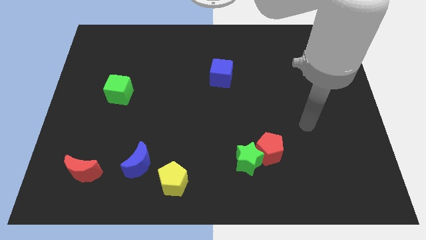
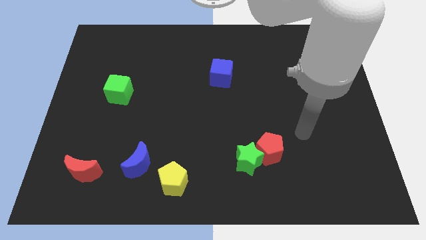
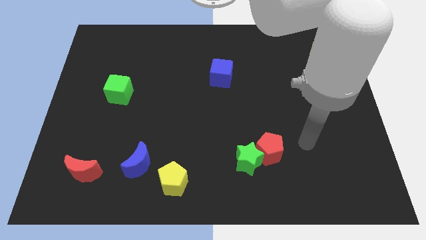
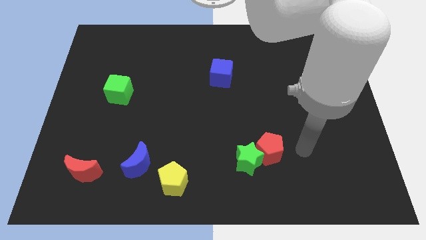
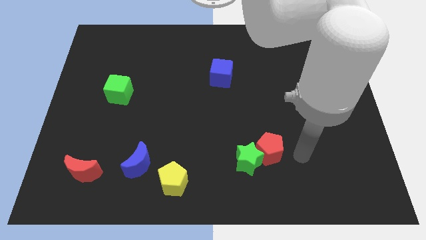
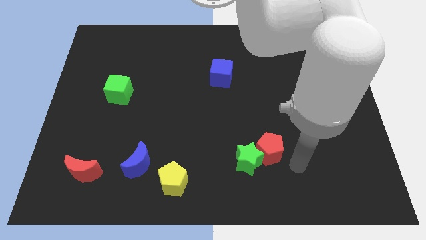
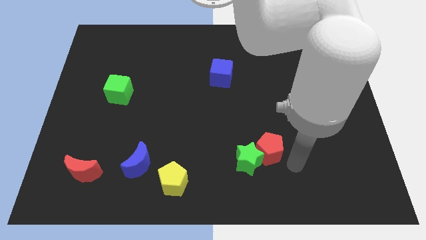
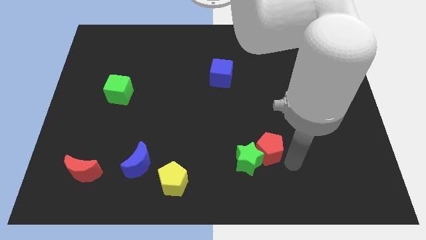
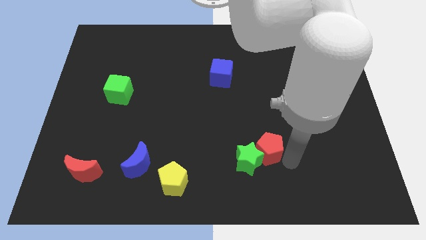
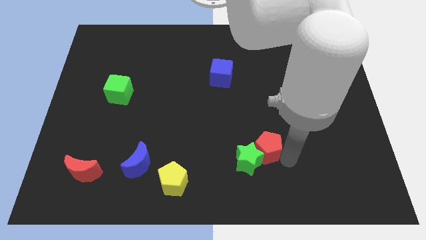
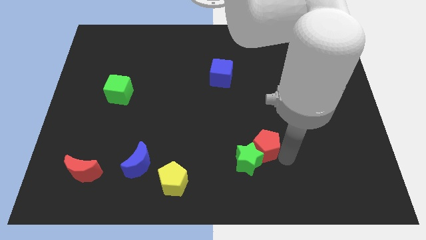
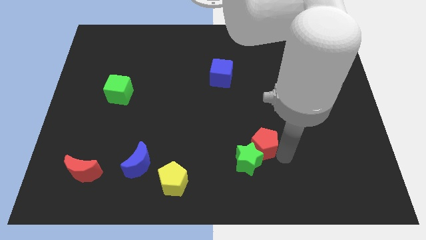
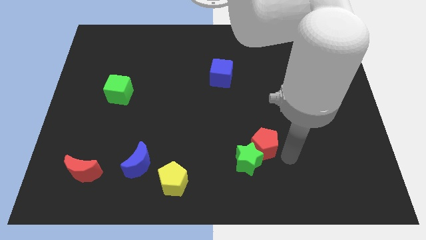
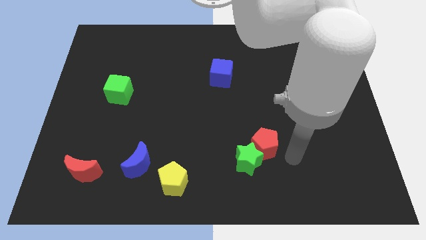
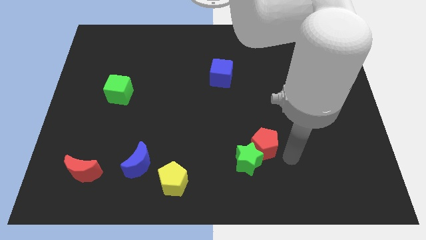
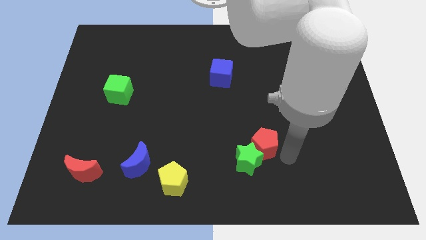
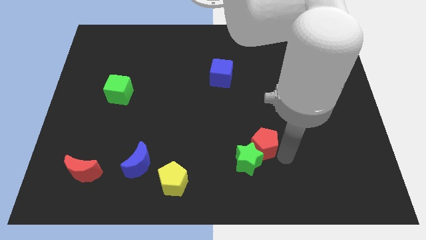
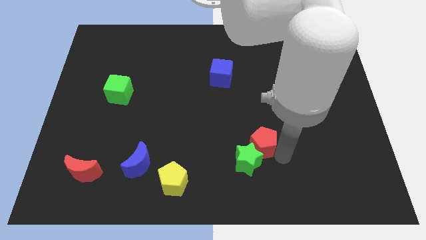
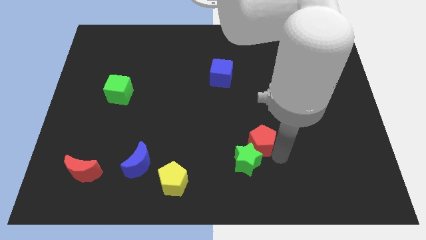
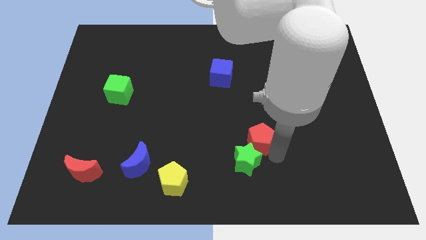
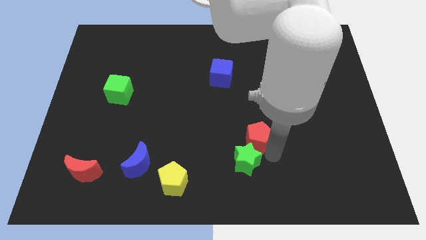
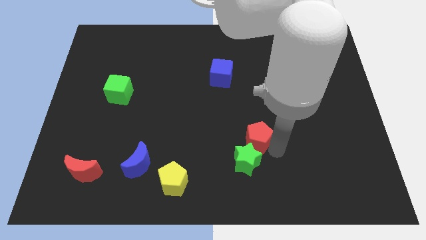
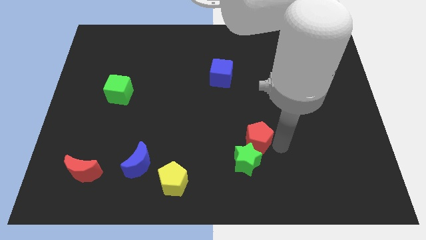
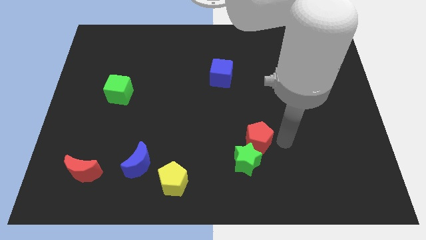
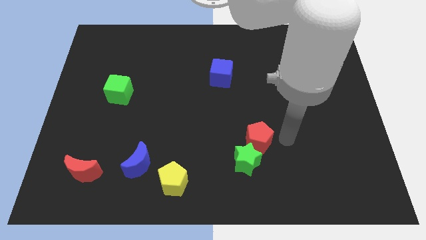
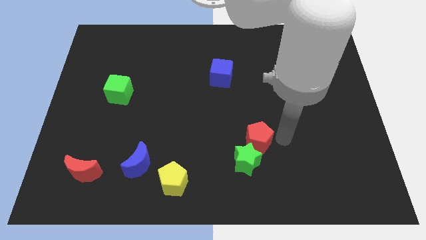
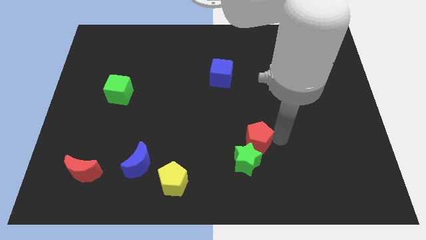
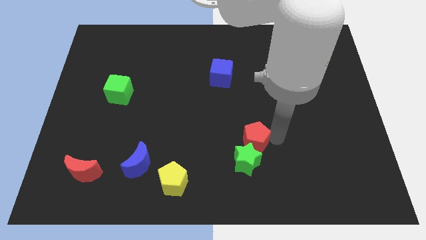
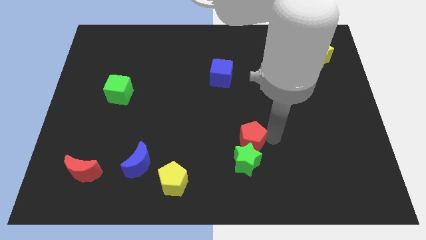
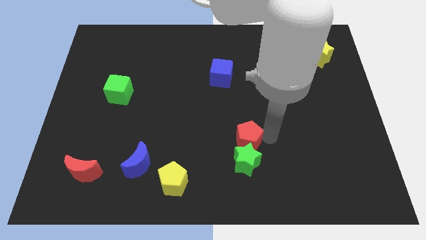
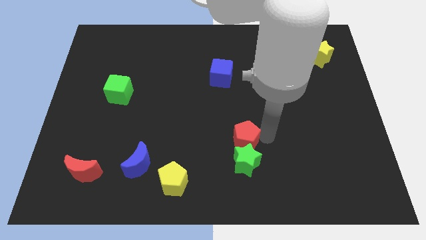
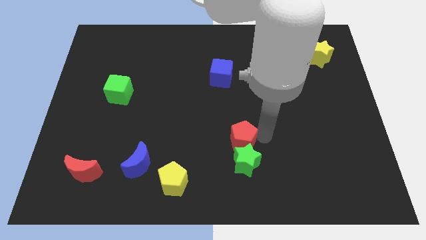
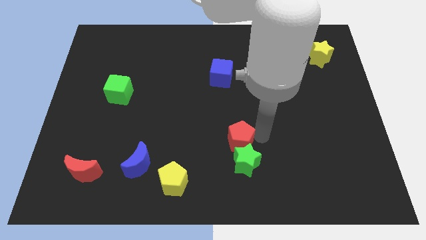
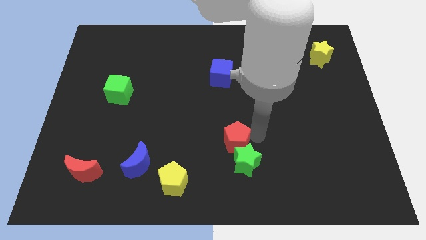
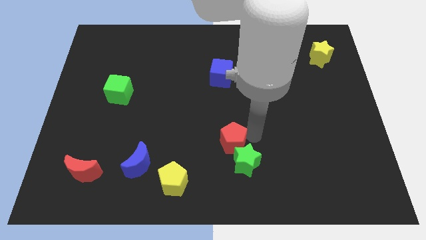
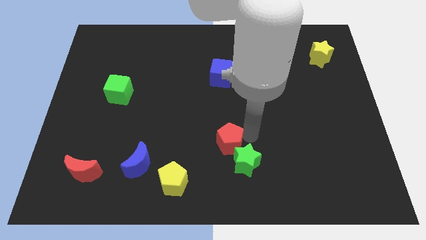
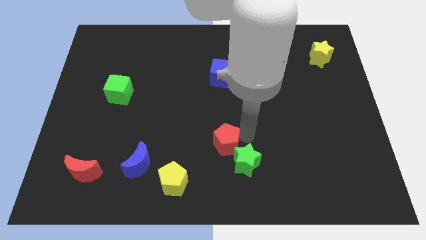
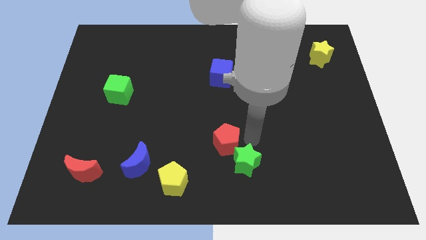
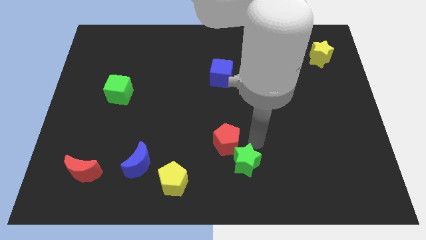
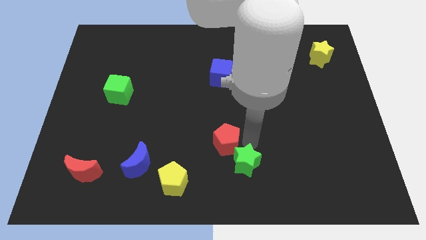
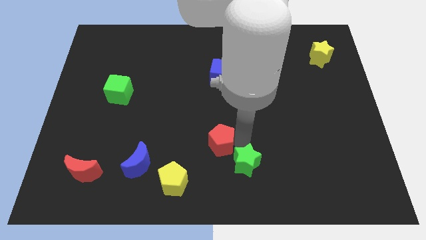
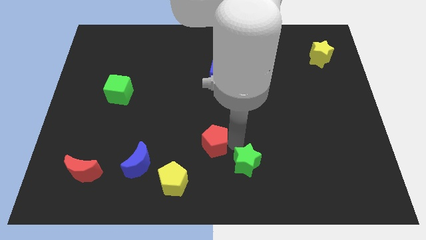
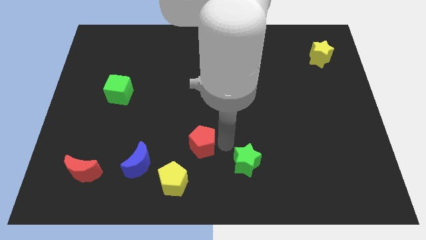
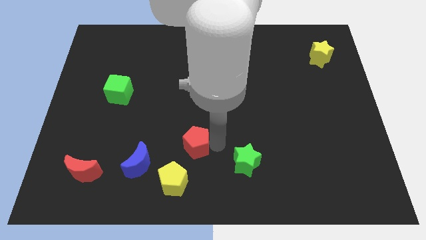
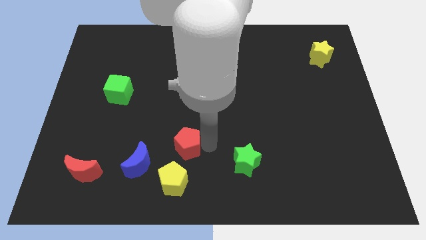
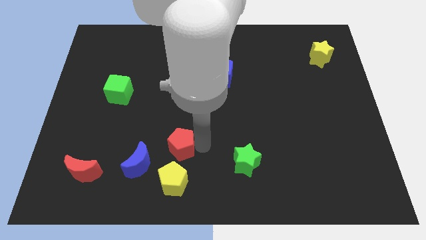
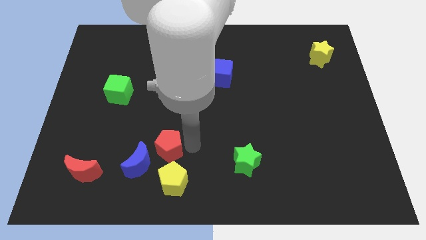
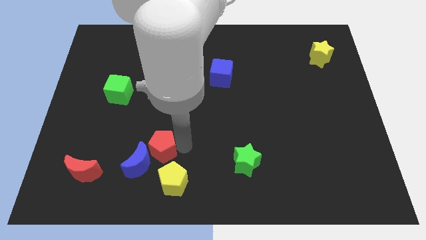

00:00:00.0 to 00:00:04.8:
move the red pentagon towards the blue moon

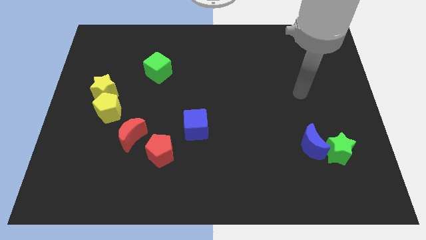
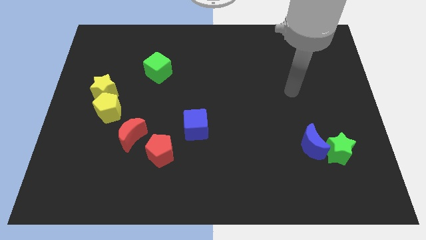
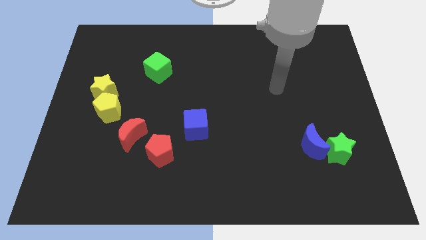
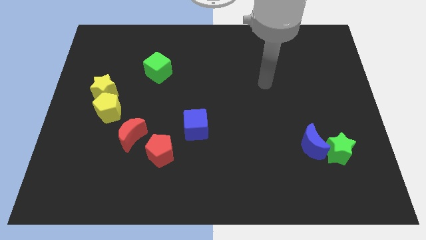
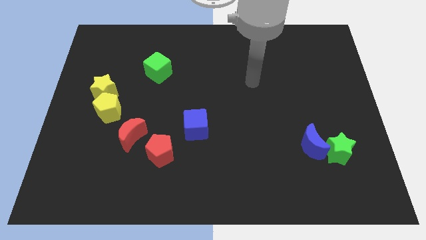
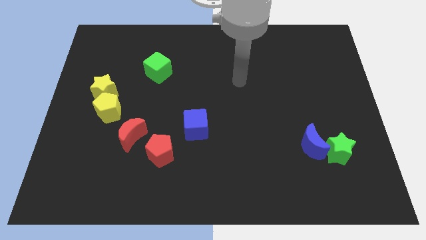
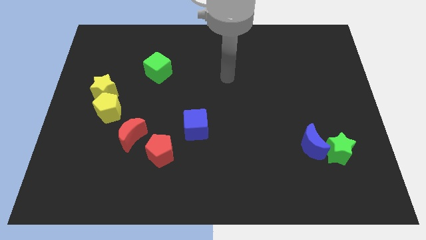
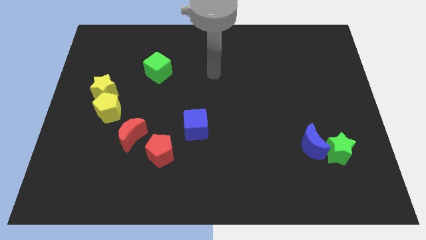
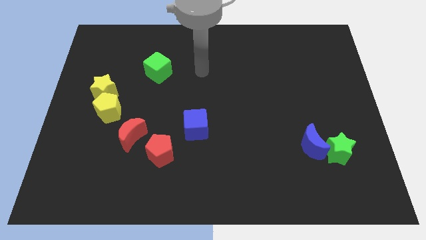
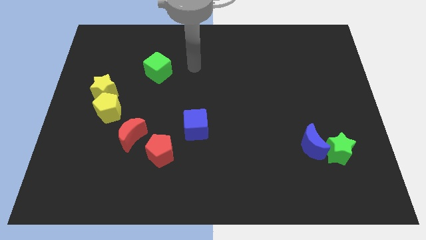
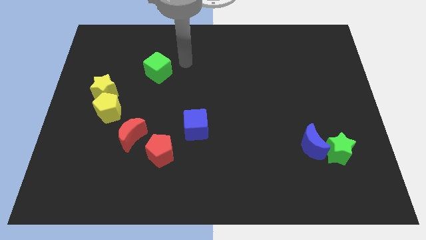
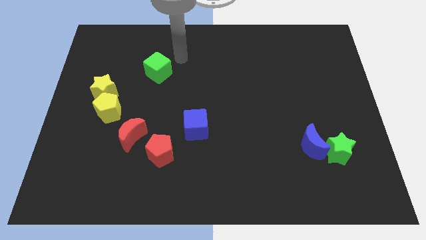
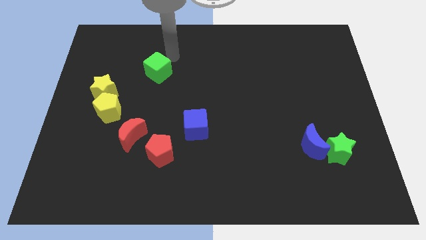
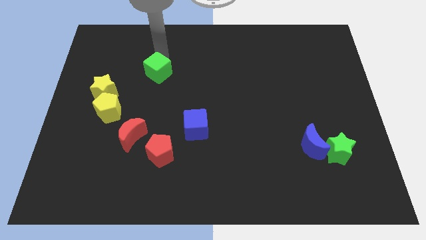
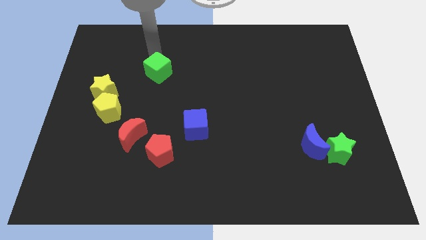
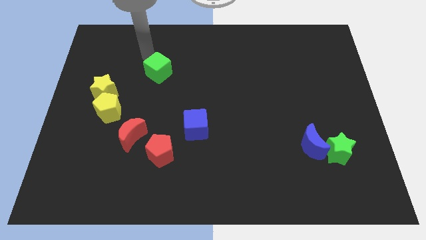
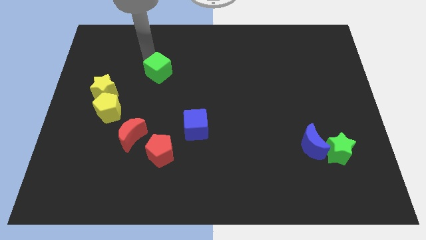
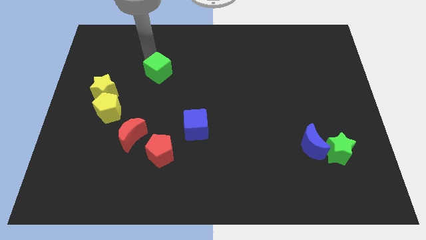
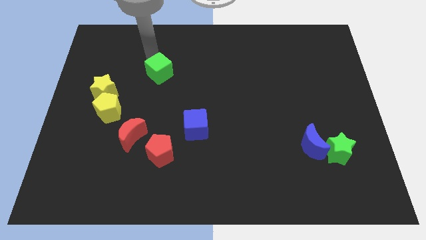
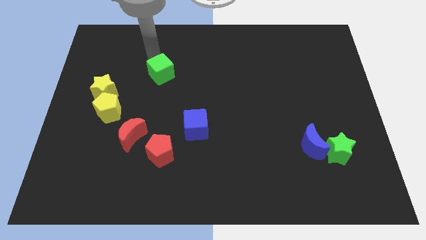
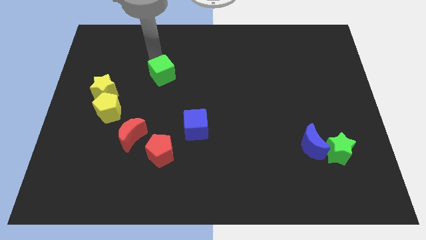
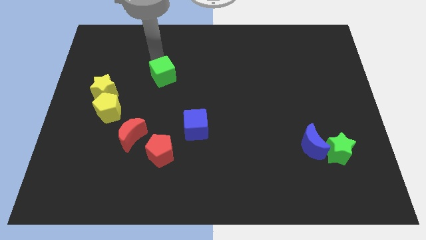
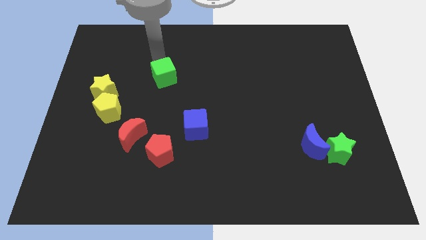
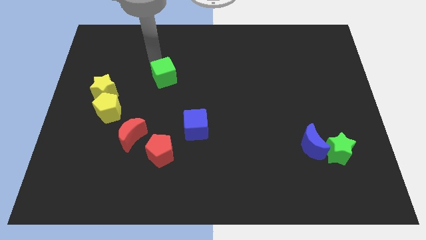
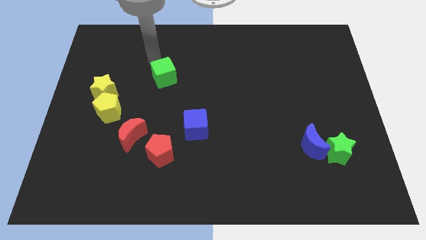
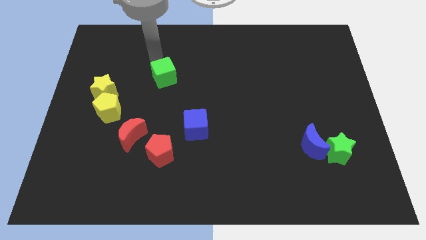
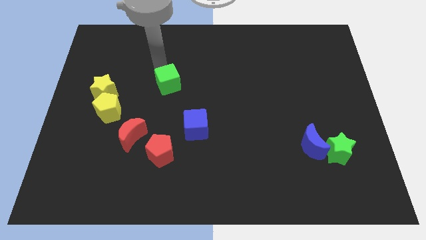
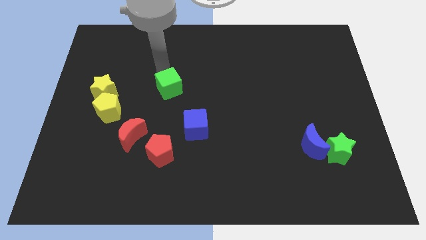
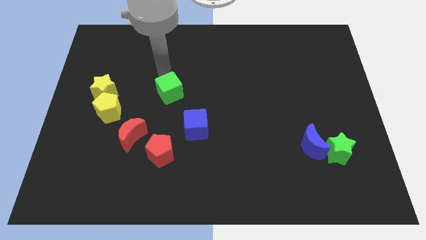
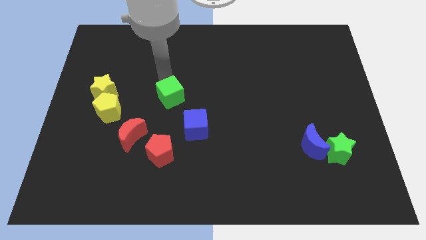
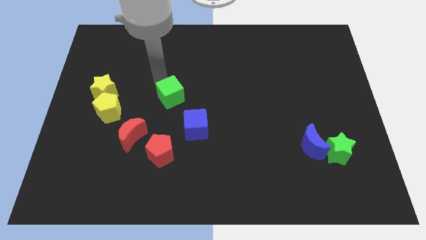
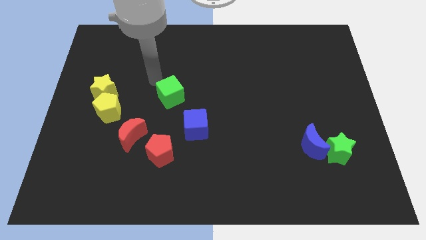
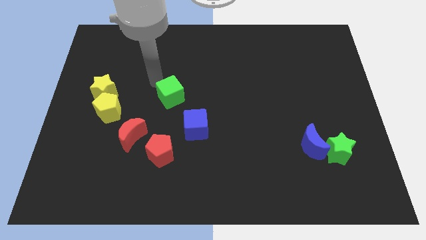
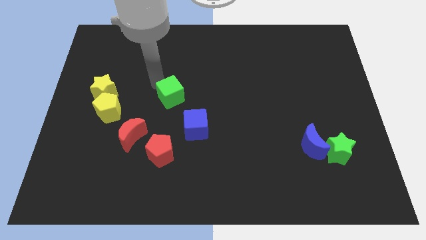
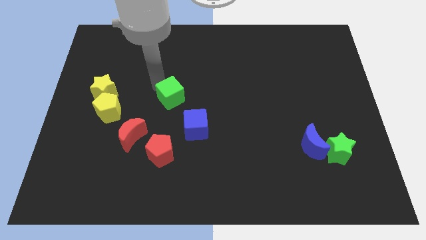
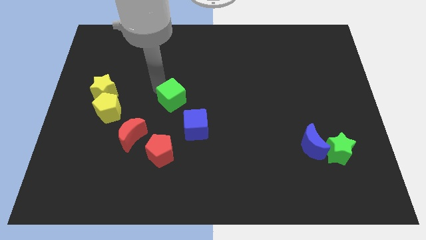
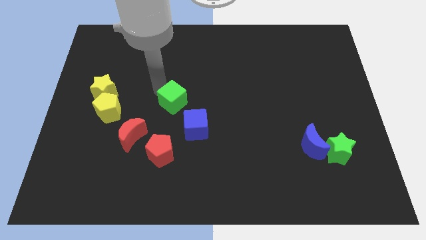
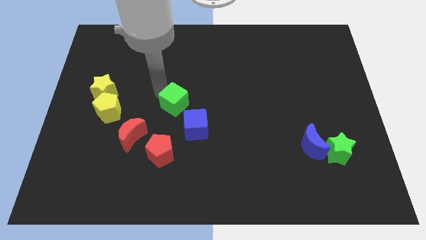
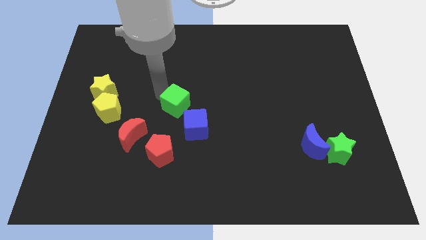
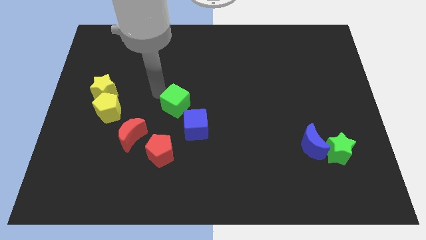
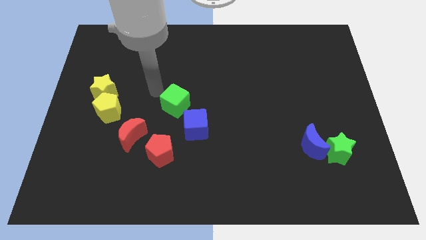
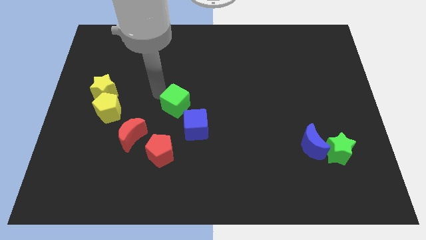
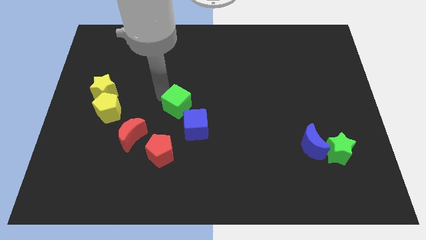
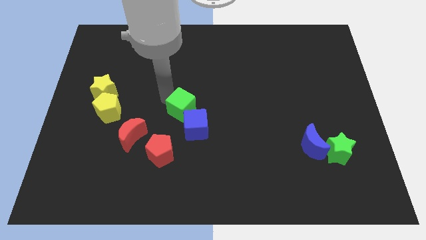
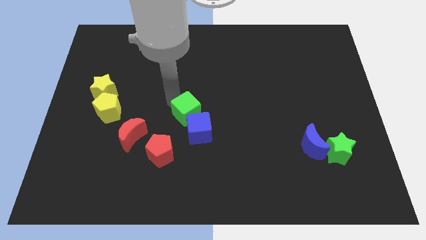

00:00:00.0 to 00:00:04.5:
move the green cube towards the blue cube
